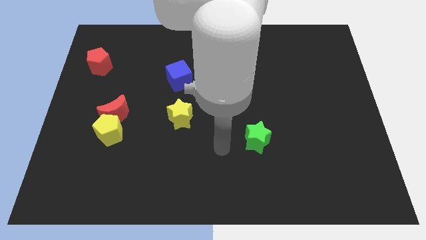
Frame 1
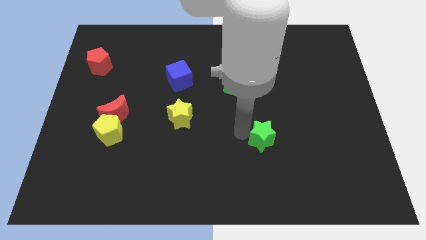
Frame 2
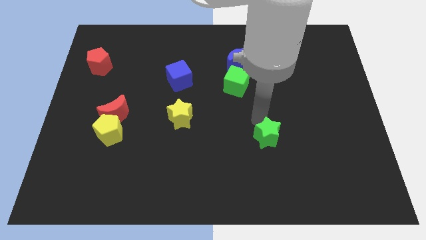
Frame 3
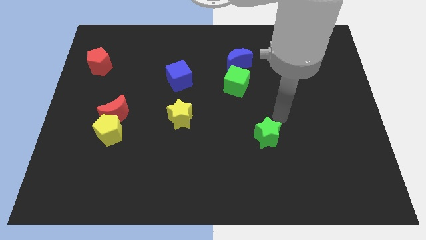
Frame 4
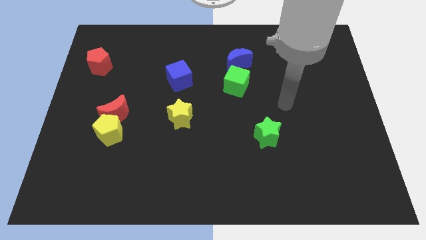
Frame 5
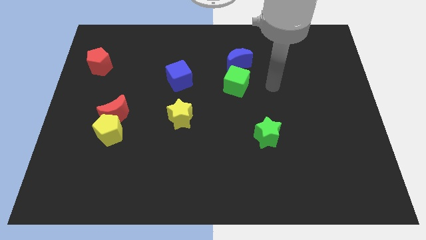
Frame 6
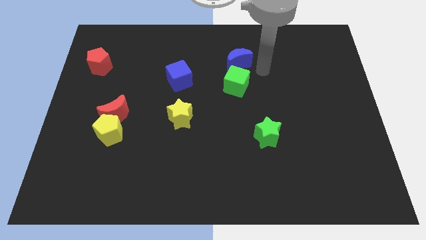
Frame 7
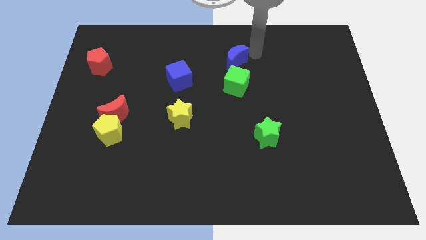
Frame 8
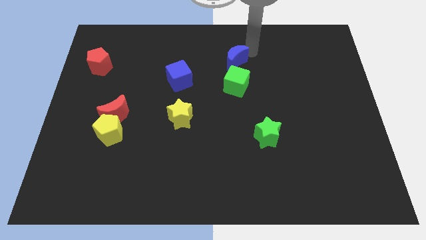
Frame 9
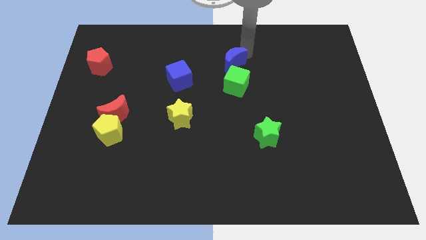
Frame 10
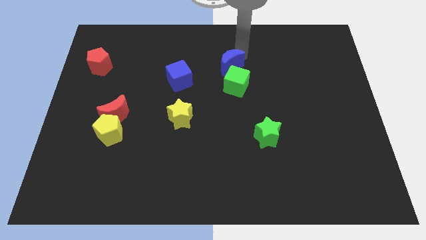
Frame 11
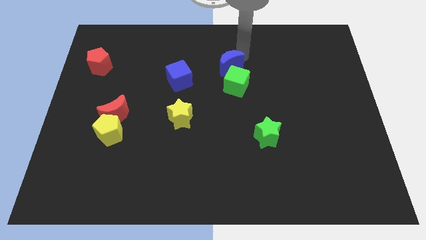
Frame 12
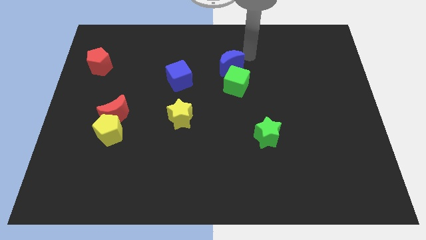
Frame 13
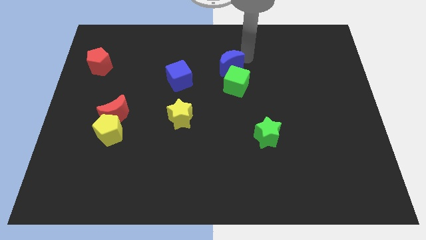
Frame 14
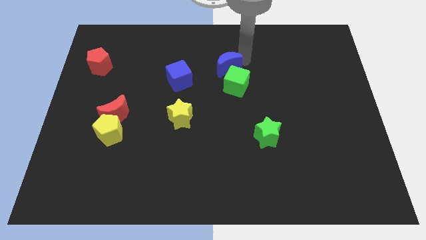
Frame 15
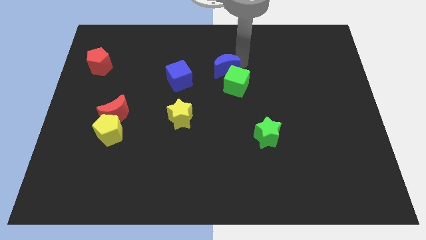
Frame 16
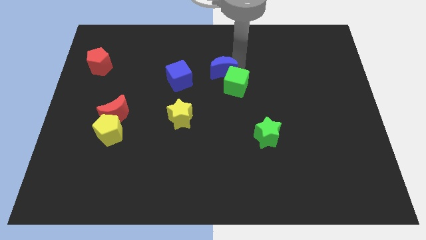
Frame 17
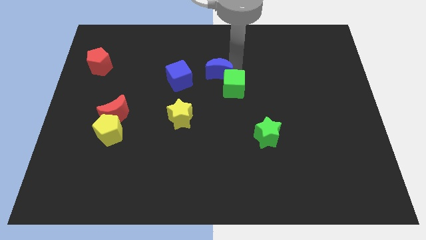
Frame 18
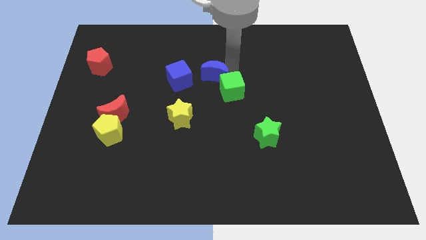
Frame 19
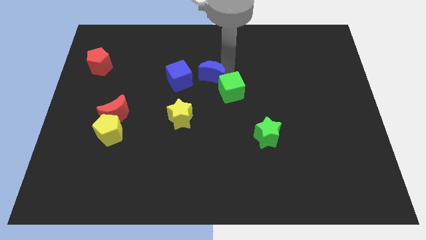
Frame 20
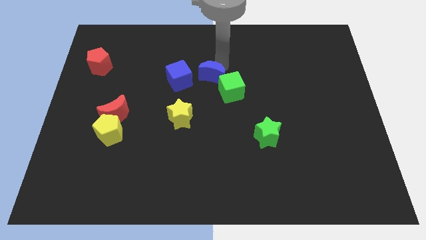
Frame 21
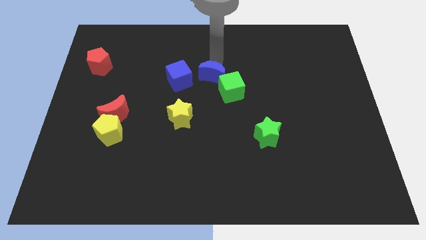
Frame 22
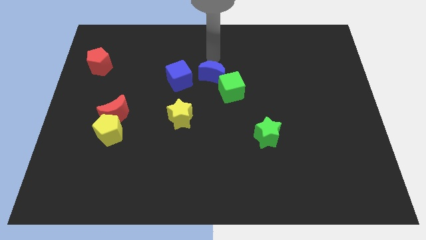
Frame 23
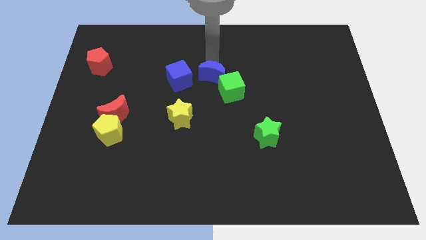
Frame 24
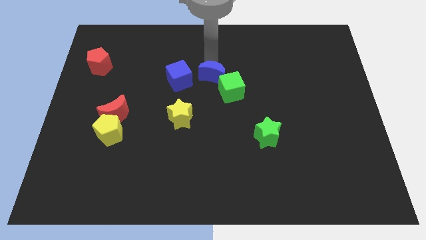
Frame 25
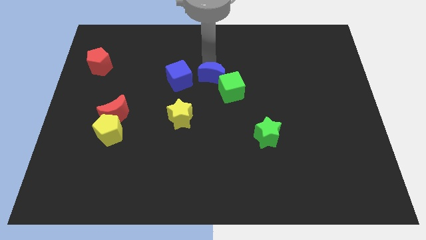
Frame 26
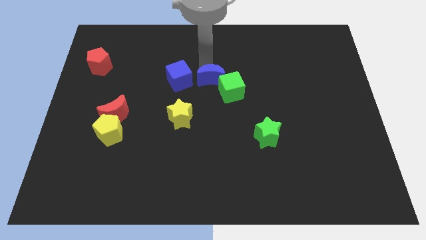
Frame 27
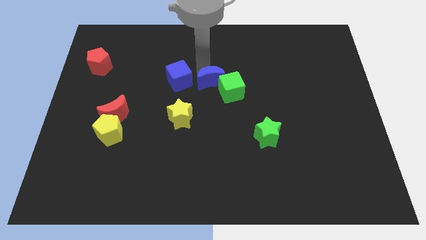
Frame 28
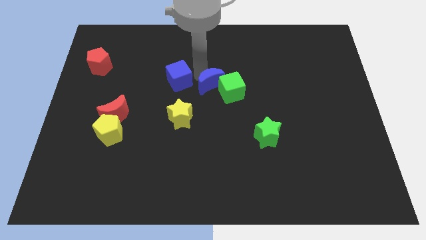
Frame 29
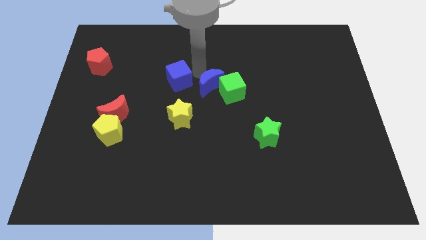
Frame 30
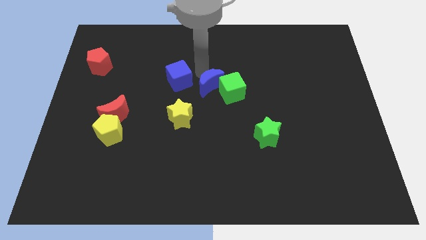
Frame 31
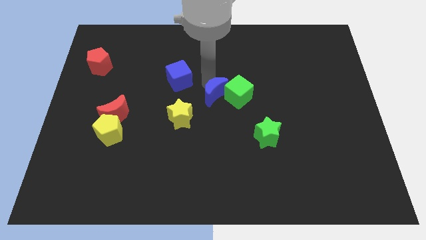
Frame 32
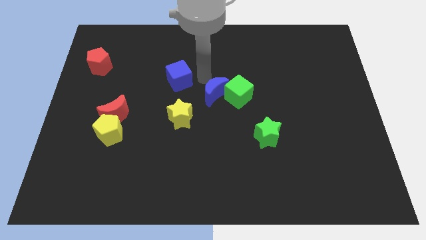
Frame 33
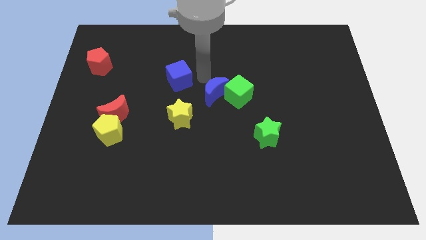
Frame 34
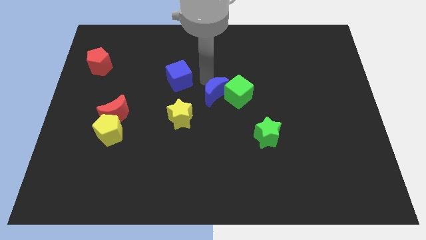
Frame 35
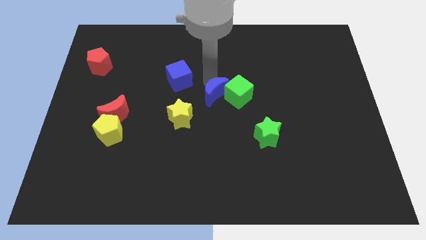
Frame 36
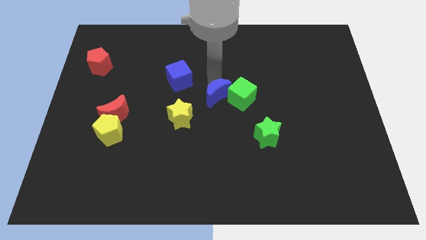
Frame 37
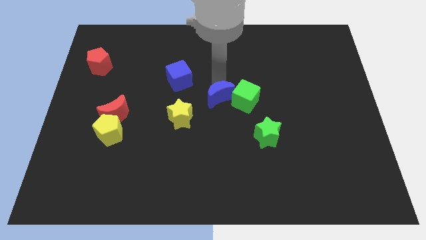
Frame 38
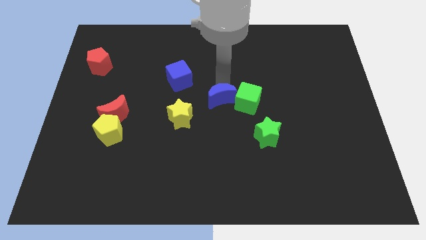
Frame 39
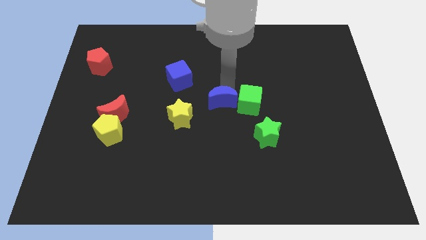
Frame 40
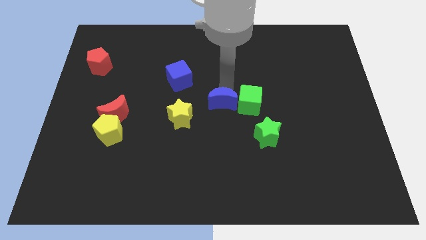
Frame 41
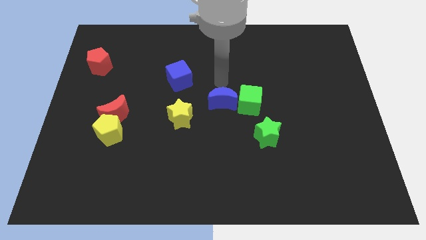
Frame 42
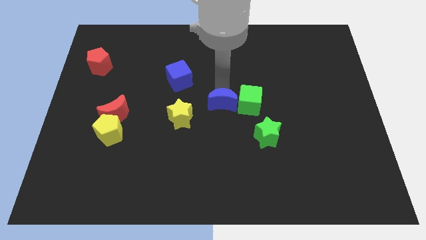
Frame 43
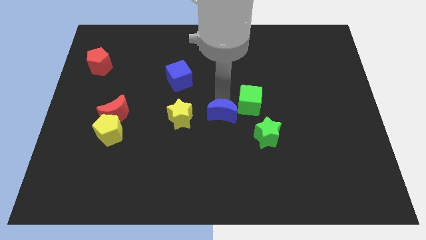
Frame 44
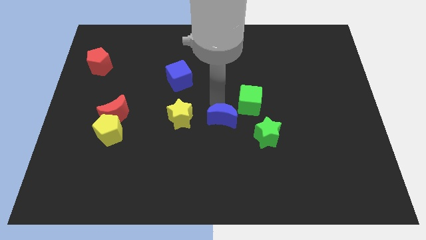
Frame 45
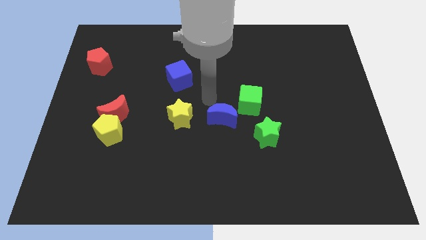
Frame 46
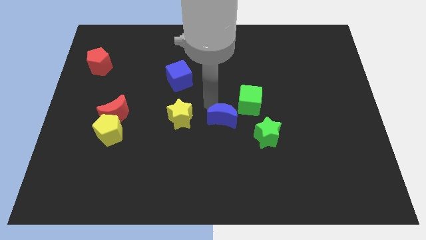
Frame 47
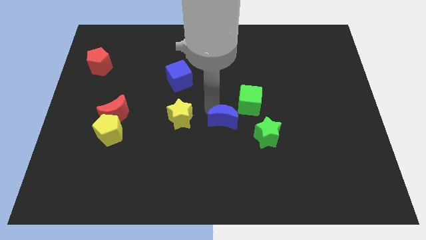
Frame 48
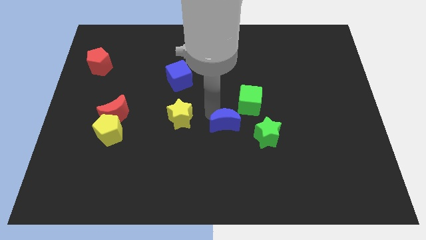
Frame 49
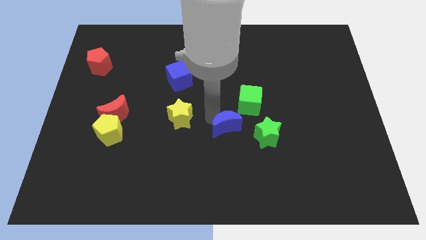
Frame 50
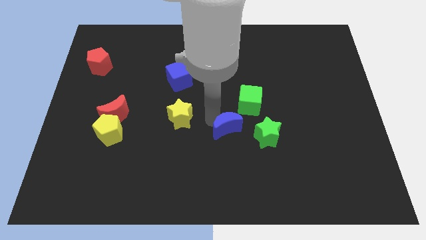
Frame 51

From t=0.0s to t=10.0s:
move the blue moon down

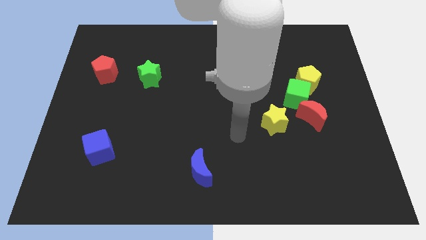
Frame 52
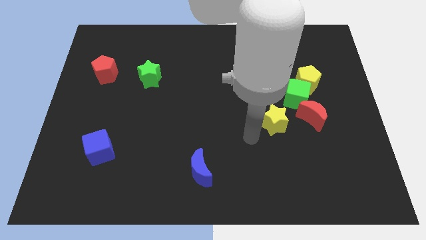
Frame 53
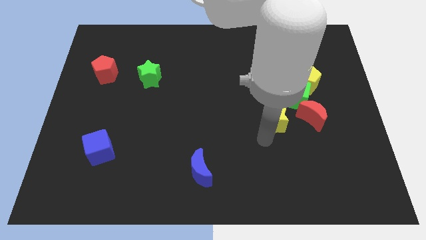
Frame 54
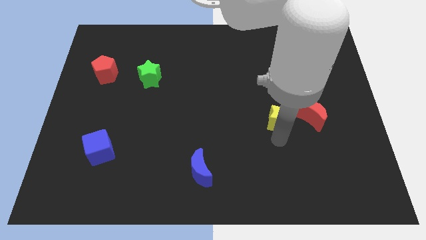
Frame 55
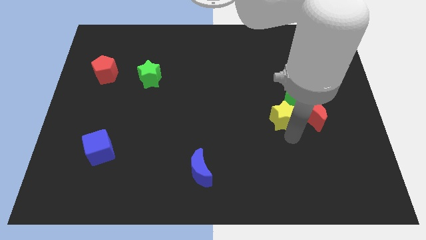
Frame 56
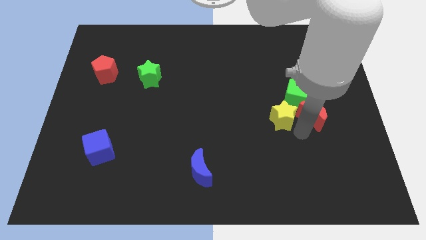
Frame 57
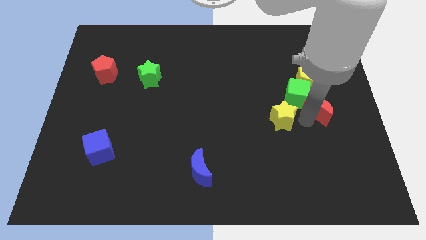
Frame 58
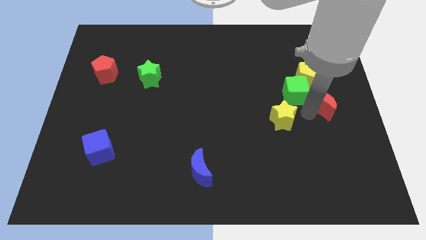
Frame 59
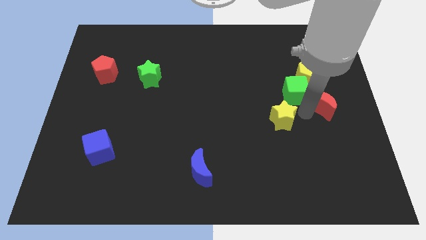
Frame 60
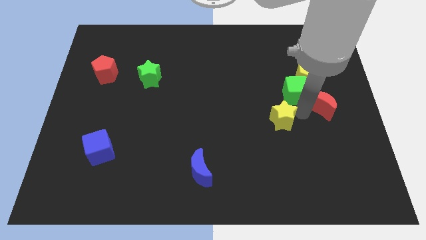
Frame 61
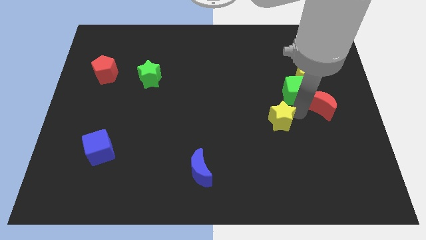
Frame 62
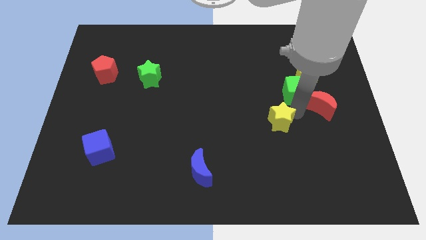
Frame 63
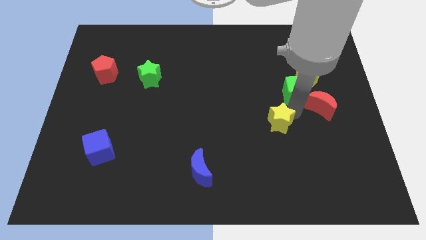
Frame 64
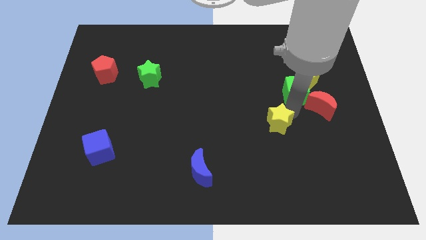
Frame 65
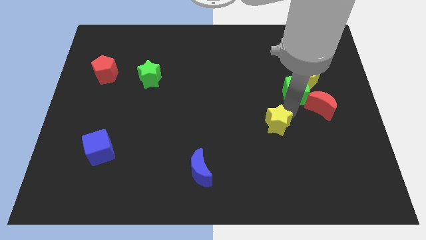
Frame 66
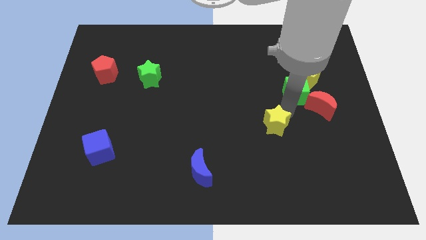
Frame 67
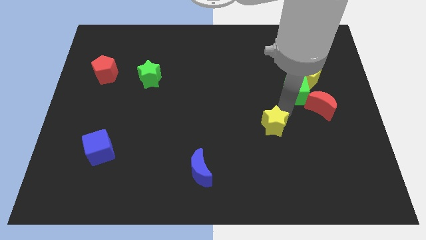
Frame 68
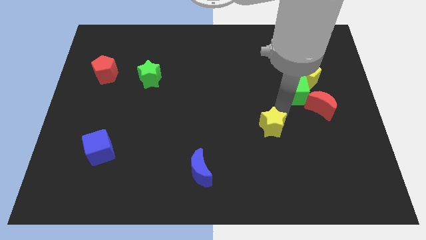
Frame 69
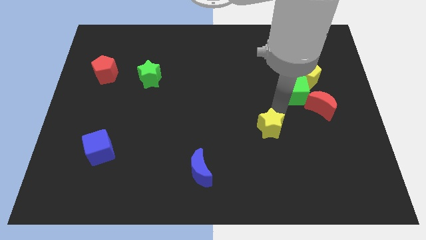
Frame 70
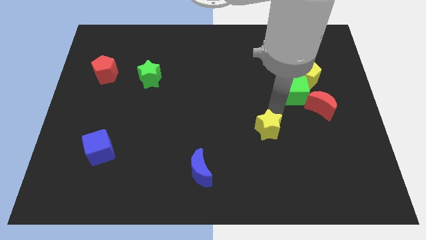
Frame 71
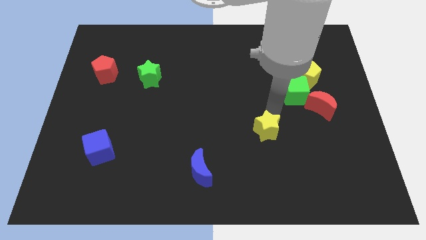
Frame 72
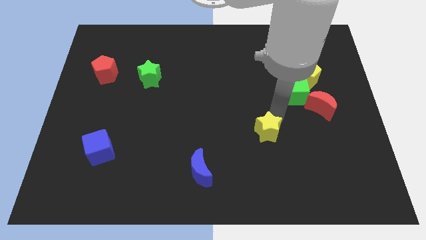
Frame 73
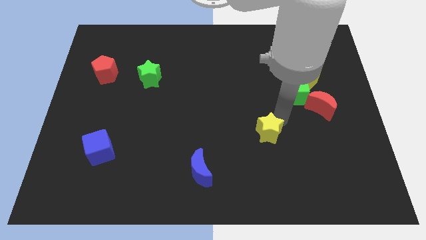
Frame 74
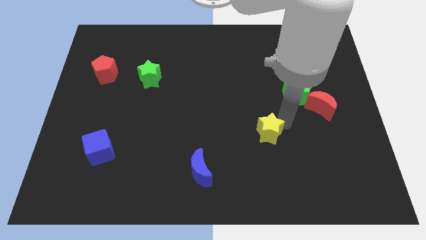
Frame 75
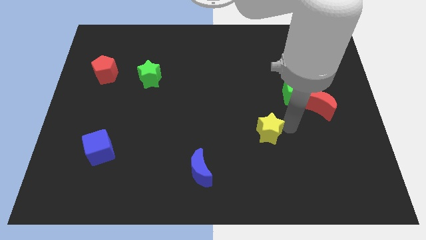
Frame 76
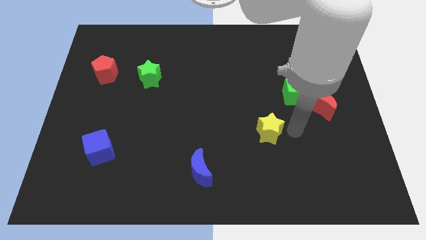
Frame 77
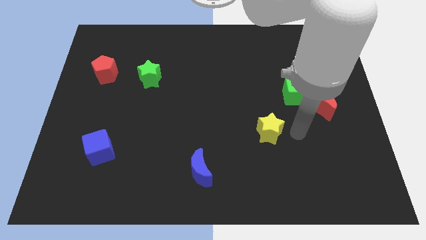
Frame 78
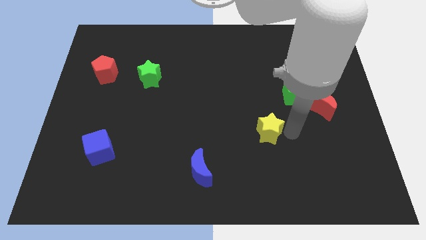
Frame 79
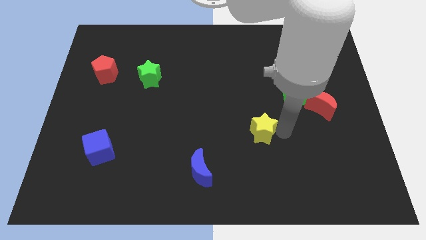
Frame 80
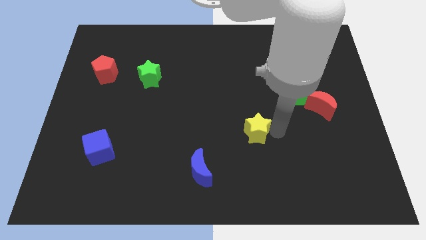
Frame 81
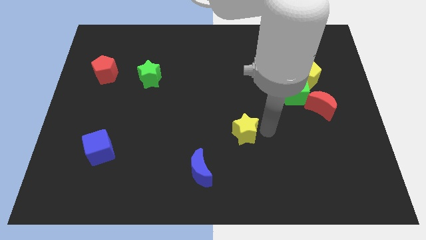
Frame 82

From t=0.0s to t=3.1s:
push the yellow star a bit to the left
